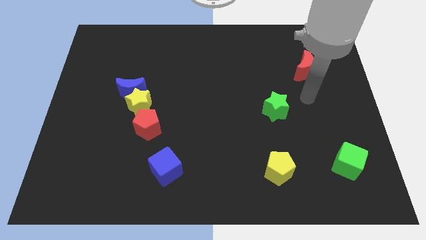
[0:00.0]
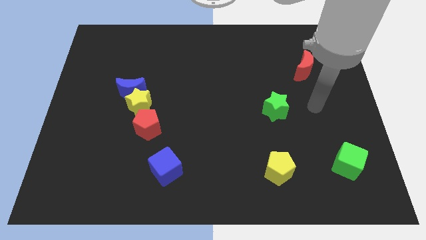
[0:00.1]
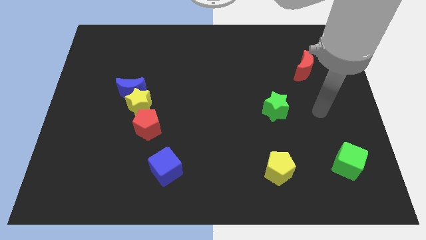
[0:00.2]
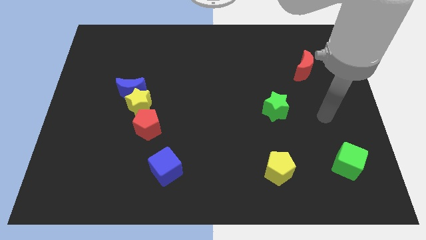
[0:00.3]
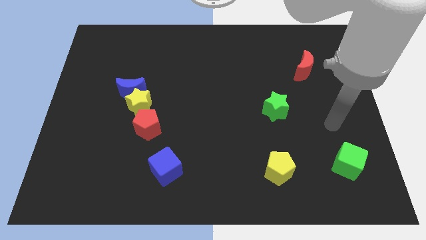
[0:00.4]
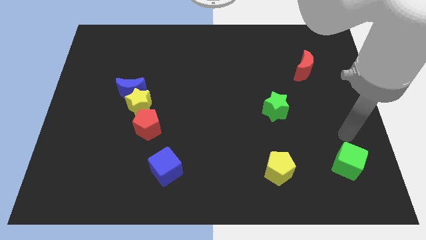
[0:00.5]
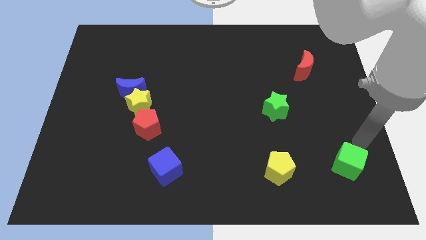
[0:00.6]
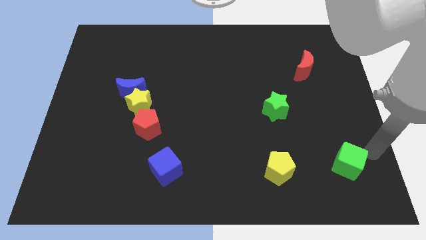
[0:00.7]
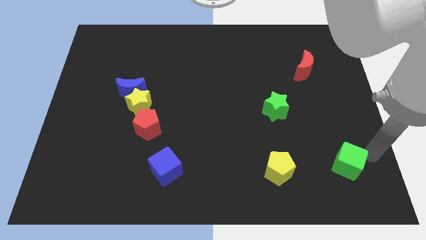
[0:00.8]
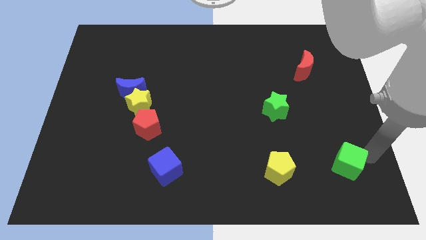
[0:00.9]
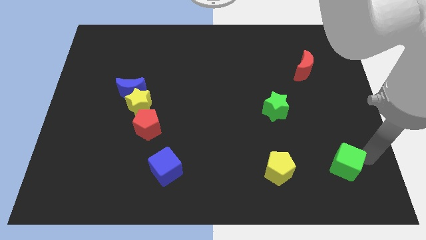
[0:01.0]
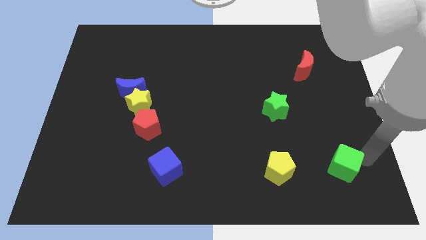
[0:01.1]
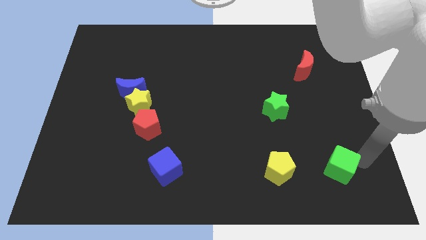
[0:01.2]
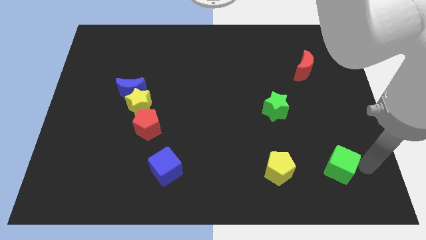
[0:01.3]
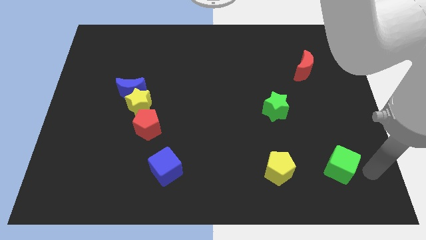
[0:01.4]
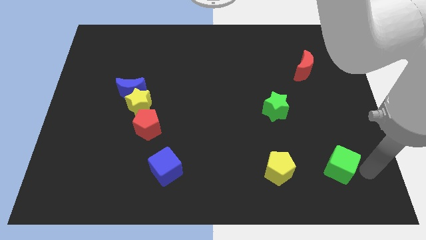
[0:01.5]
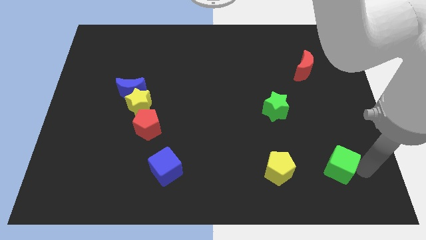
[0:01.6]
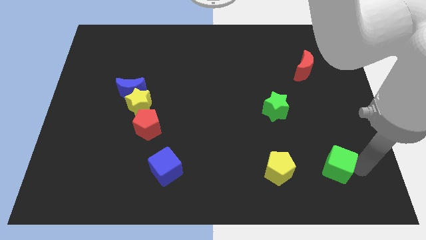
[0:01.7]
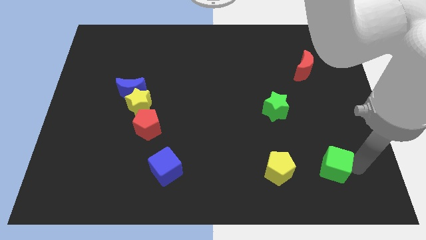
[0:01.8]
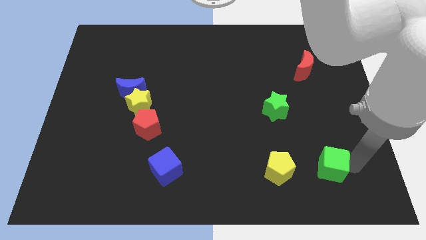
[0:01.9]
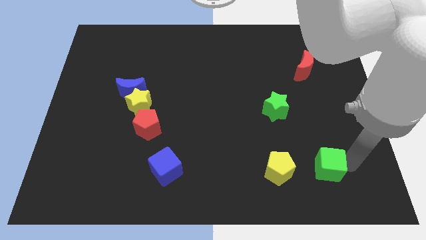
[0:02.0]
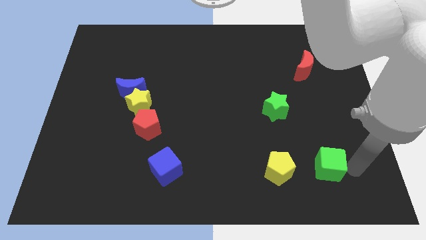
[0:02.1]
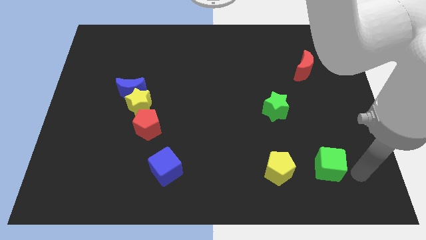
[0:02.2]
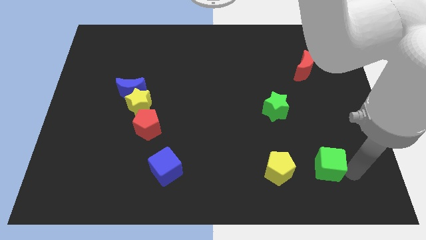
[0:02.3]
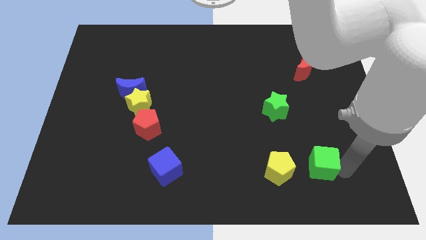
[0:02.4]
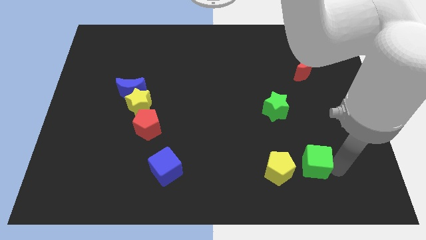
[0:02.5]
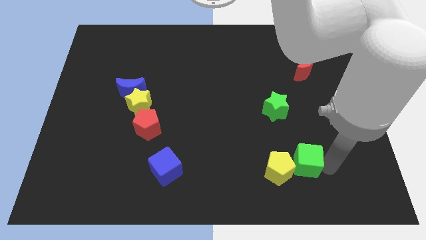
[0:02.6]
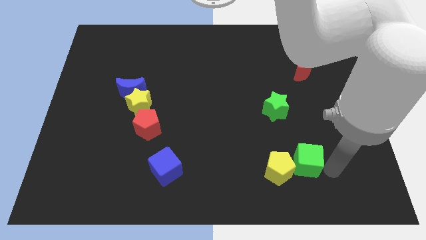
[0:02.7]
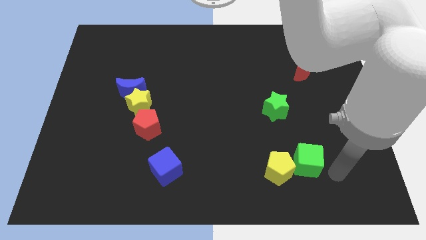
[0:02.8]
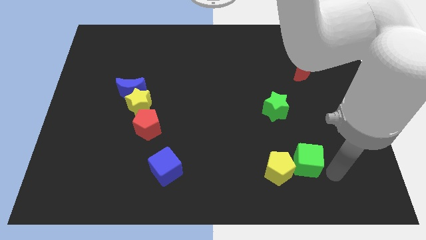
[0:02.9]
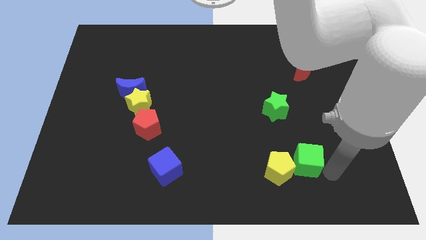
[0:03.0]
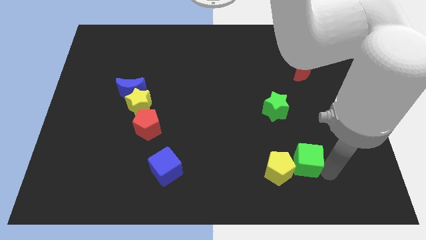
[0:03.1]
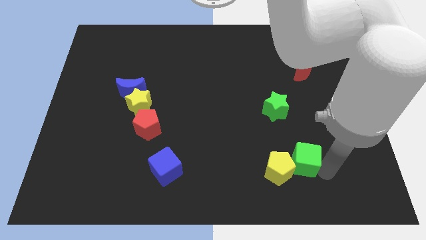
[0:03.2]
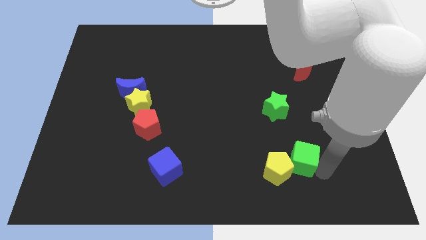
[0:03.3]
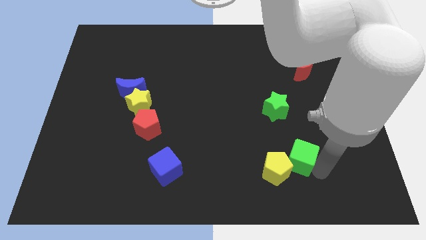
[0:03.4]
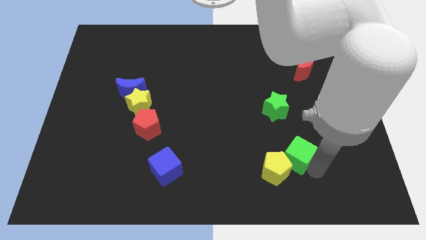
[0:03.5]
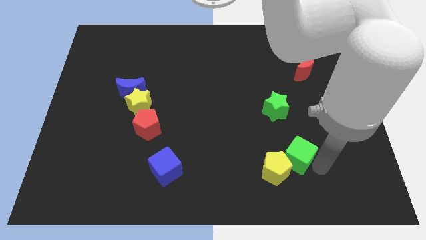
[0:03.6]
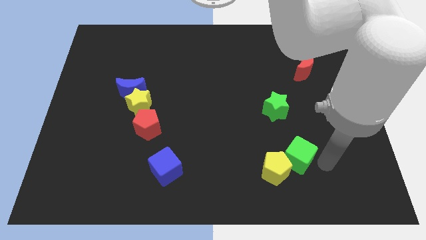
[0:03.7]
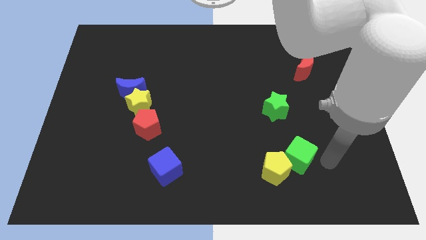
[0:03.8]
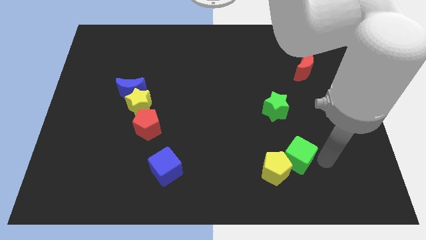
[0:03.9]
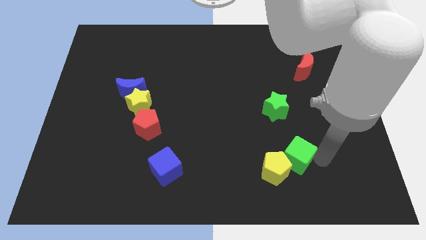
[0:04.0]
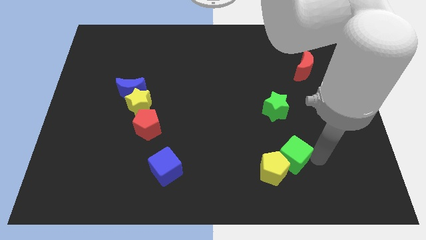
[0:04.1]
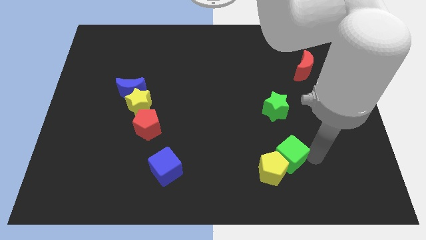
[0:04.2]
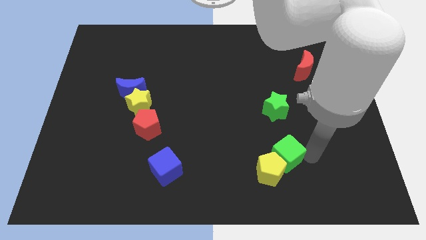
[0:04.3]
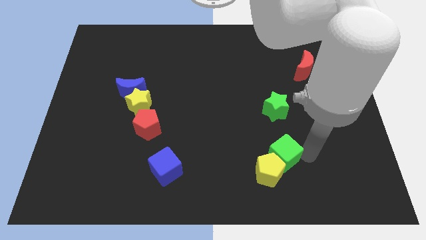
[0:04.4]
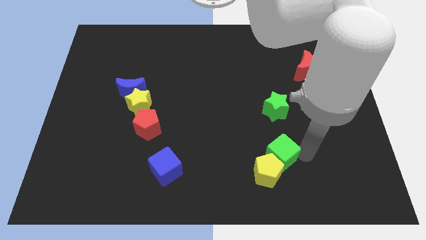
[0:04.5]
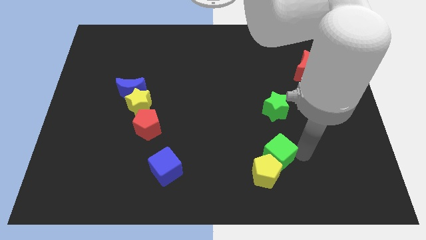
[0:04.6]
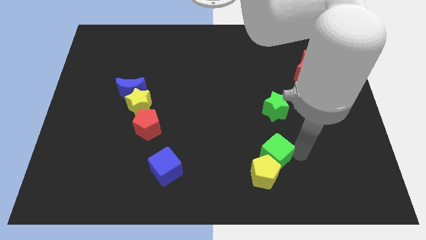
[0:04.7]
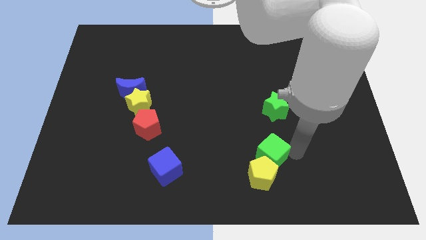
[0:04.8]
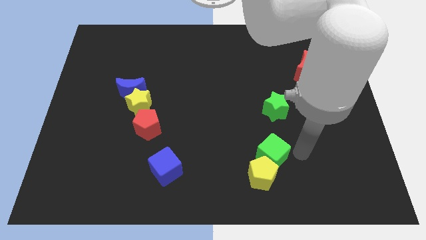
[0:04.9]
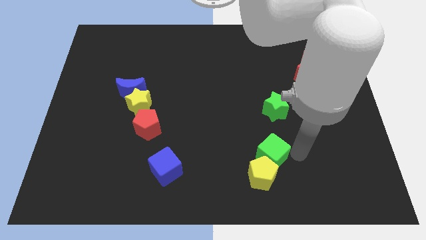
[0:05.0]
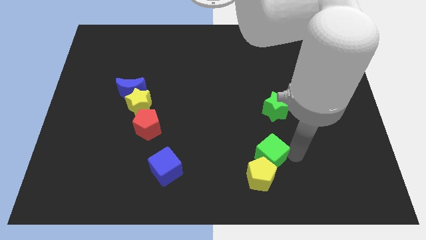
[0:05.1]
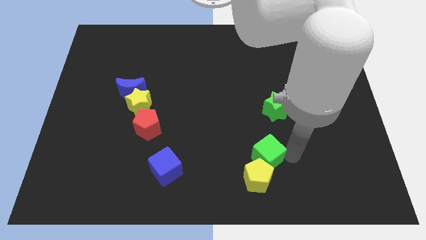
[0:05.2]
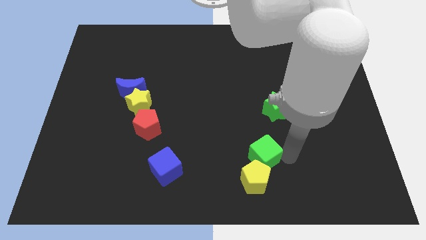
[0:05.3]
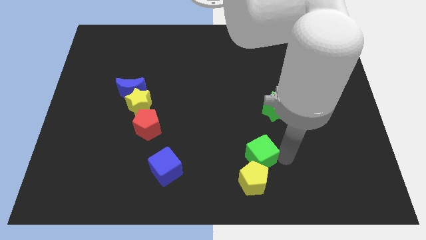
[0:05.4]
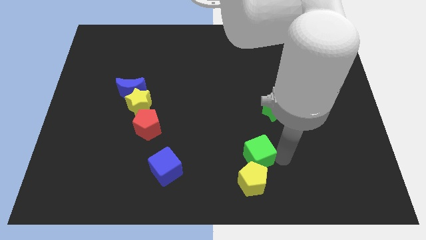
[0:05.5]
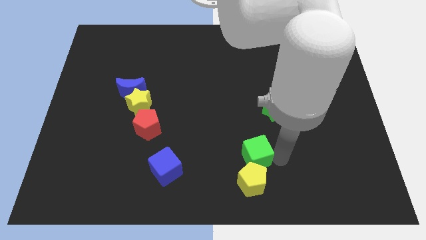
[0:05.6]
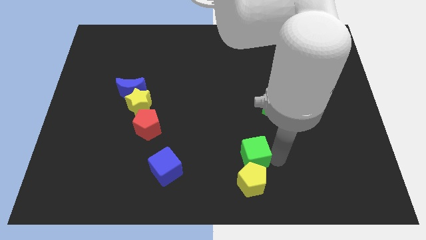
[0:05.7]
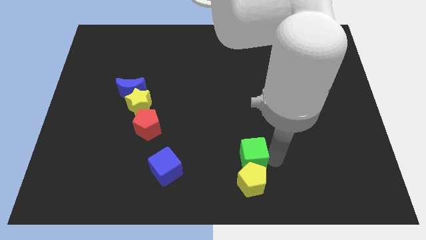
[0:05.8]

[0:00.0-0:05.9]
push the green cube left

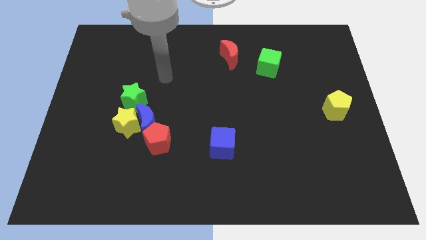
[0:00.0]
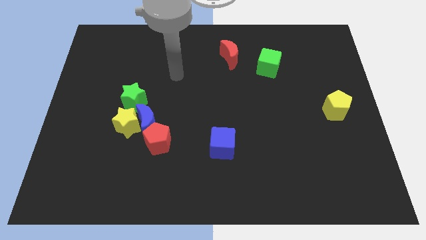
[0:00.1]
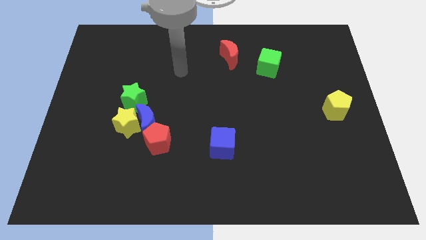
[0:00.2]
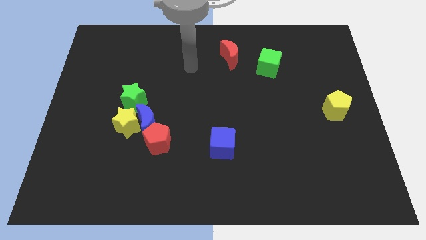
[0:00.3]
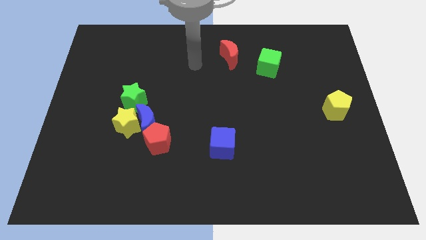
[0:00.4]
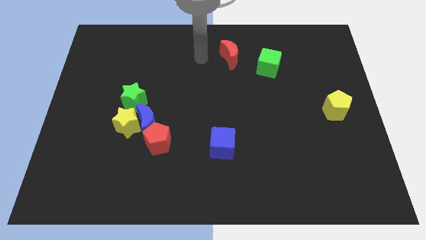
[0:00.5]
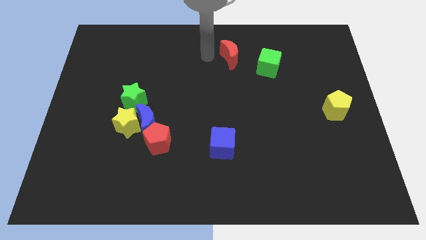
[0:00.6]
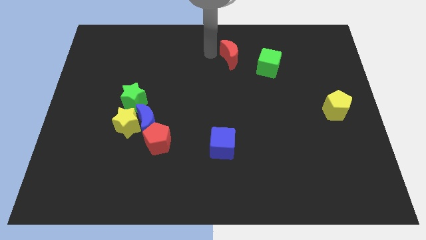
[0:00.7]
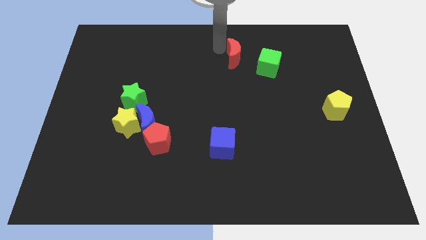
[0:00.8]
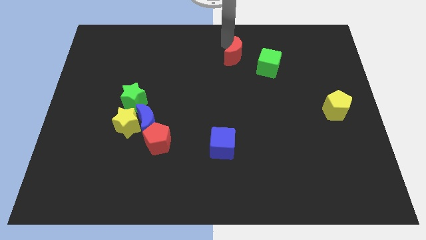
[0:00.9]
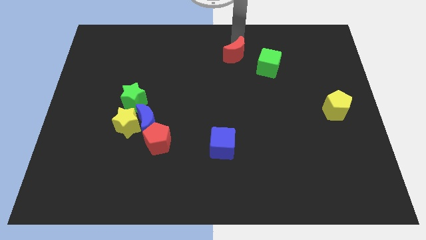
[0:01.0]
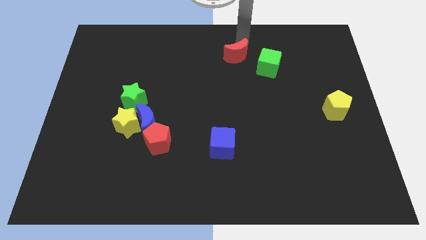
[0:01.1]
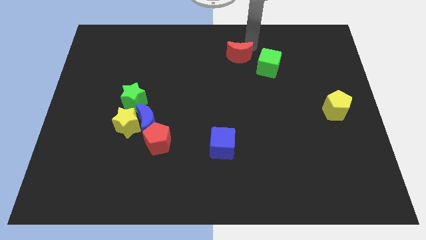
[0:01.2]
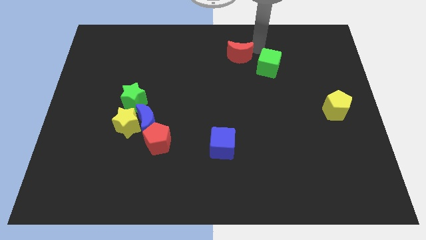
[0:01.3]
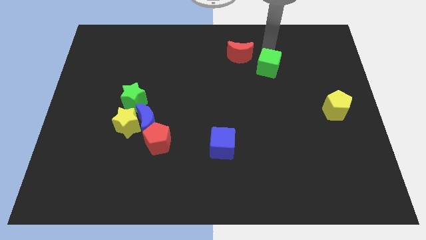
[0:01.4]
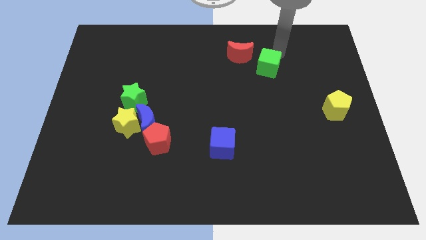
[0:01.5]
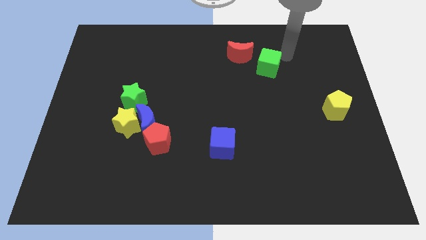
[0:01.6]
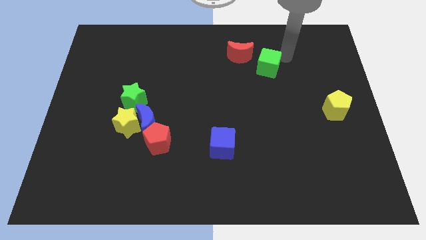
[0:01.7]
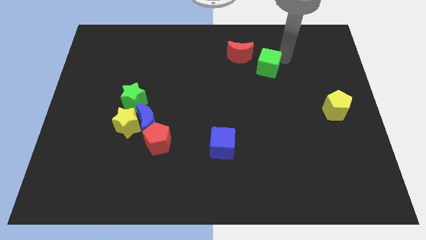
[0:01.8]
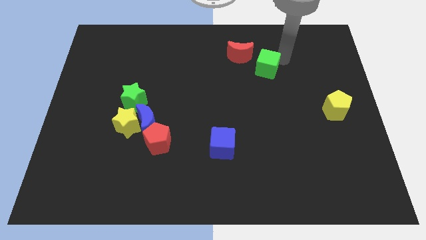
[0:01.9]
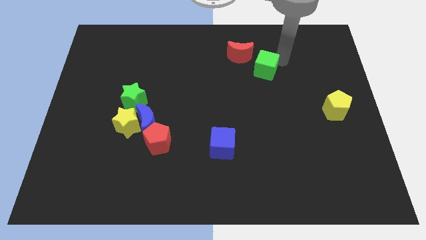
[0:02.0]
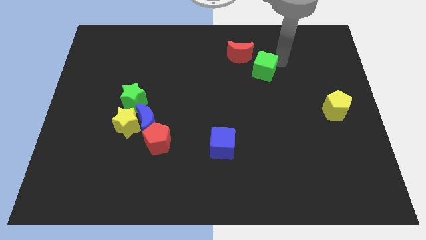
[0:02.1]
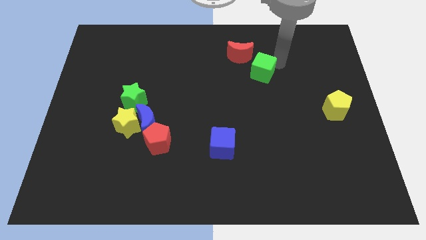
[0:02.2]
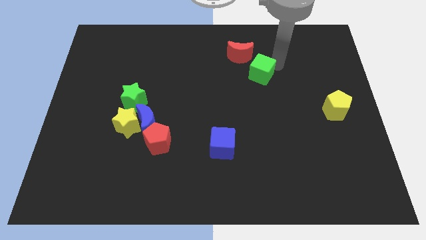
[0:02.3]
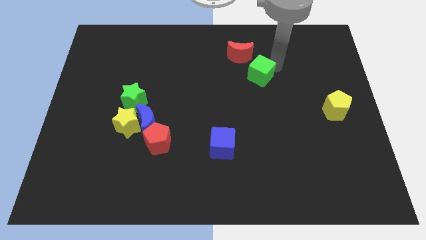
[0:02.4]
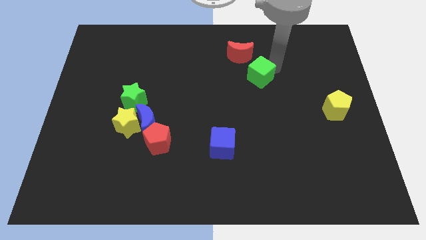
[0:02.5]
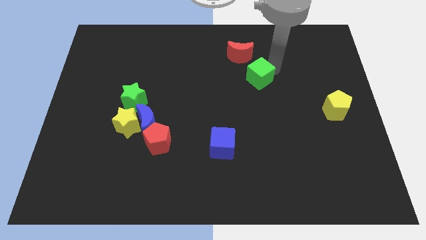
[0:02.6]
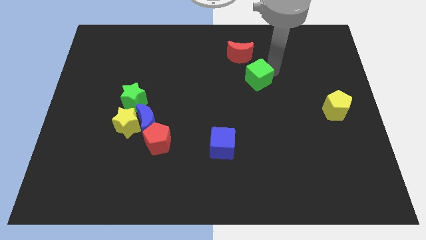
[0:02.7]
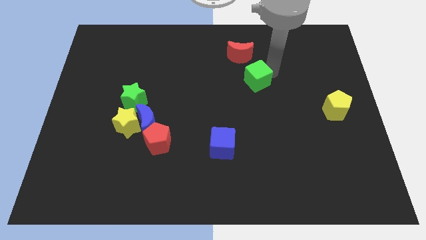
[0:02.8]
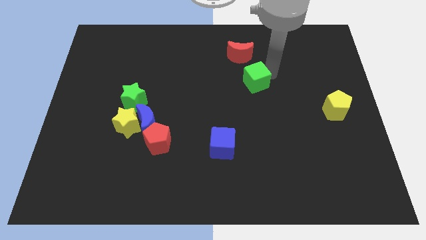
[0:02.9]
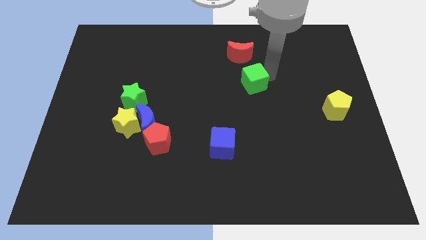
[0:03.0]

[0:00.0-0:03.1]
push the green cube downwards and then left somewhat
